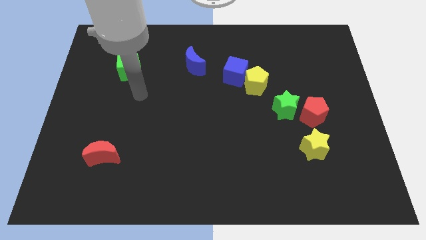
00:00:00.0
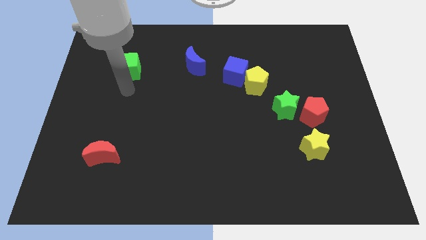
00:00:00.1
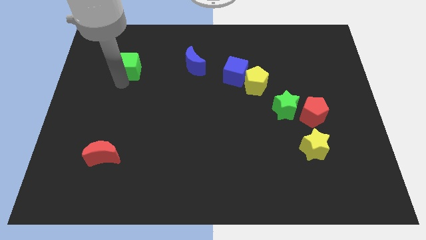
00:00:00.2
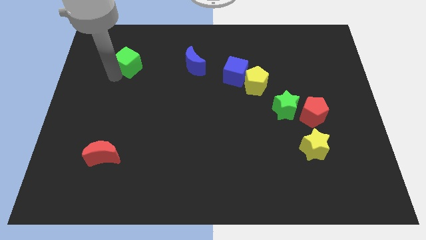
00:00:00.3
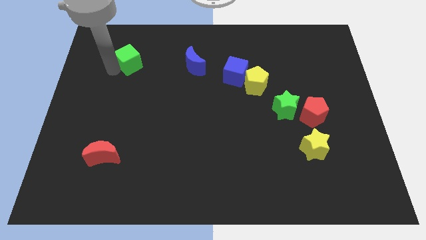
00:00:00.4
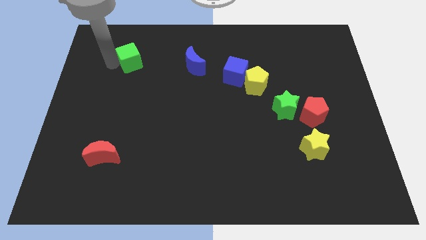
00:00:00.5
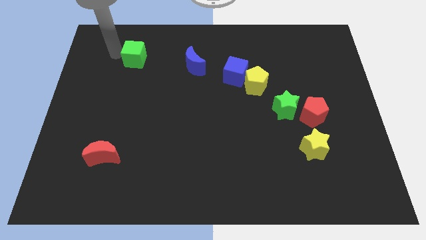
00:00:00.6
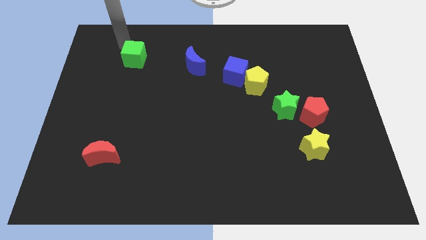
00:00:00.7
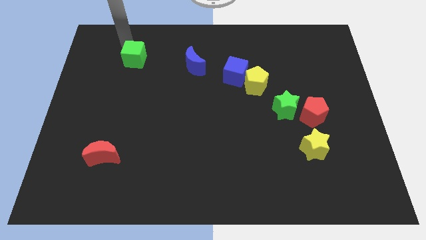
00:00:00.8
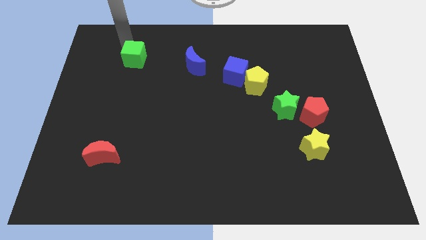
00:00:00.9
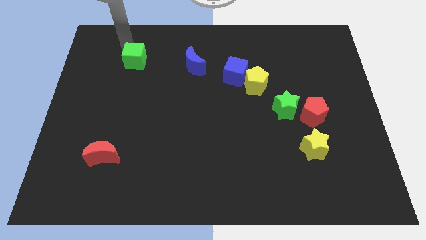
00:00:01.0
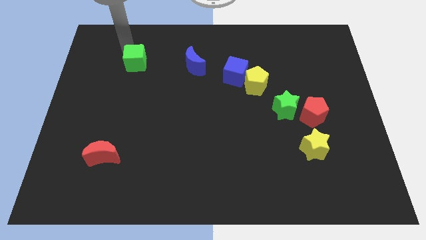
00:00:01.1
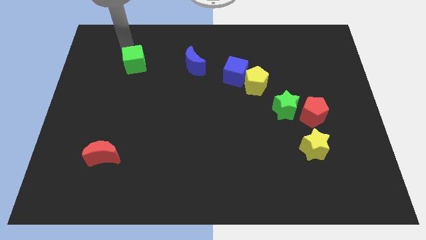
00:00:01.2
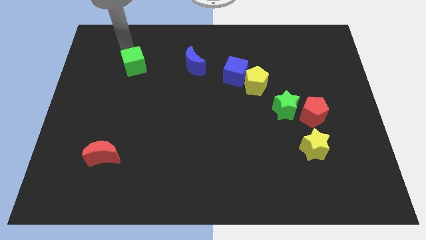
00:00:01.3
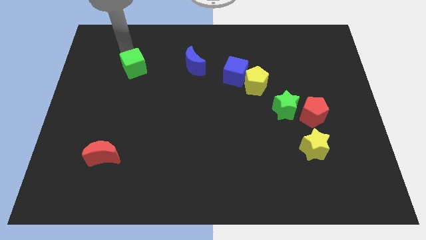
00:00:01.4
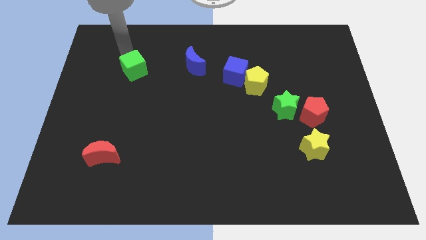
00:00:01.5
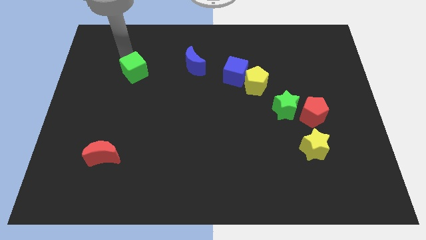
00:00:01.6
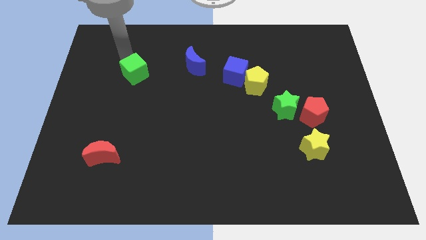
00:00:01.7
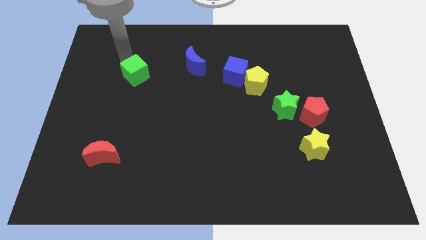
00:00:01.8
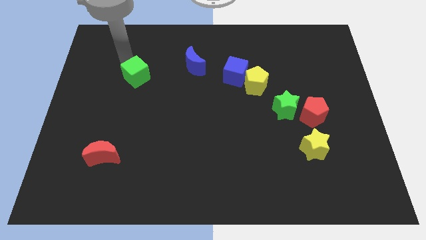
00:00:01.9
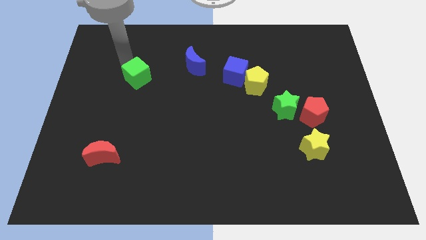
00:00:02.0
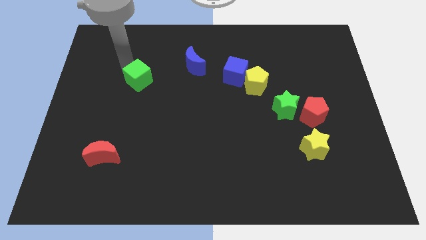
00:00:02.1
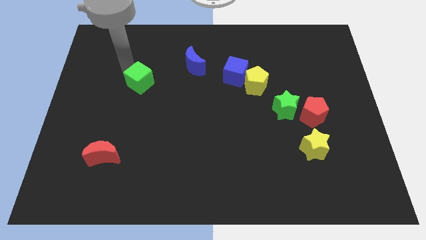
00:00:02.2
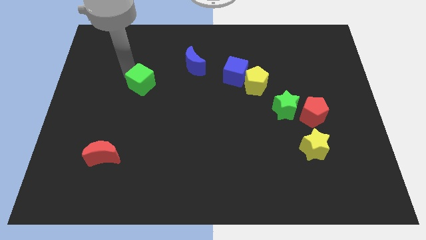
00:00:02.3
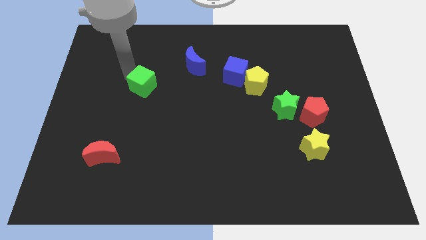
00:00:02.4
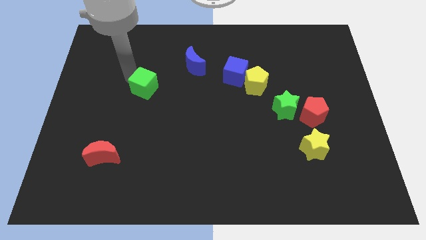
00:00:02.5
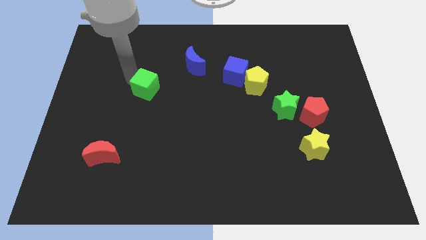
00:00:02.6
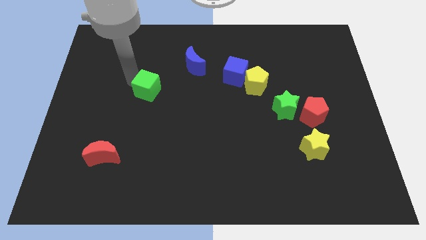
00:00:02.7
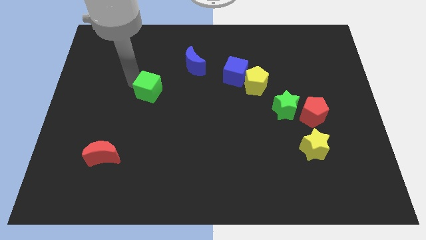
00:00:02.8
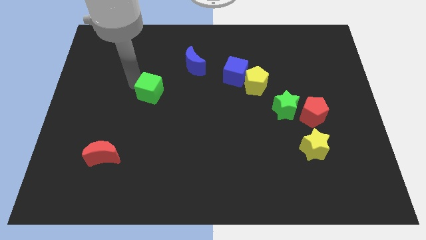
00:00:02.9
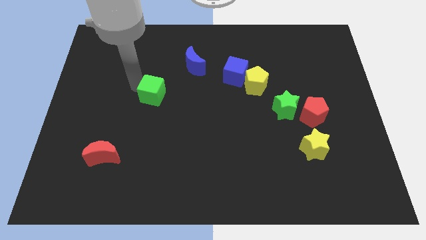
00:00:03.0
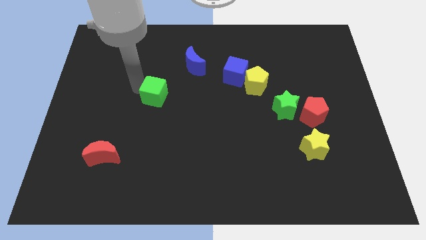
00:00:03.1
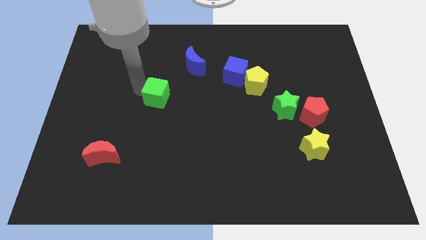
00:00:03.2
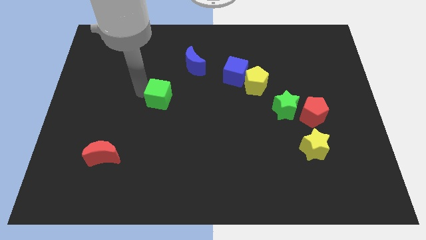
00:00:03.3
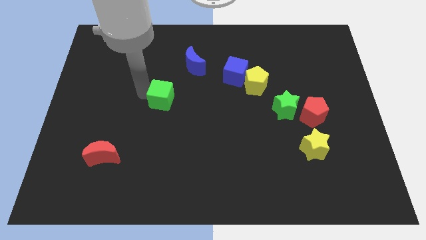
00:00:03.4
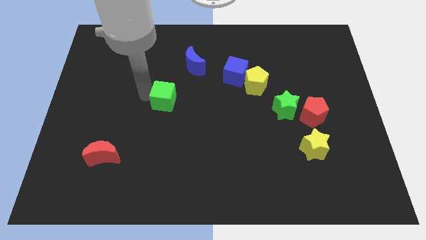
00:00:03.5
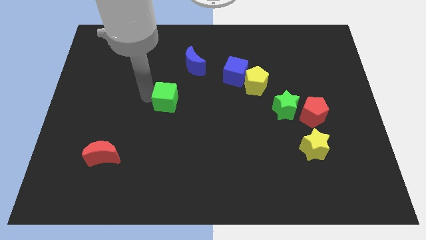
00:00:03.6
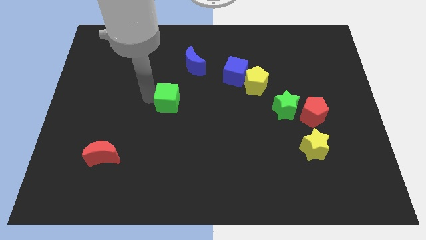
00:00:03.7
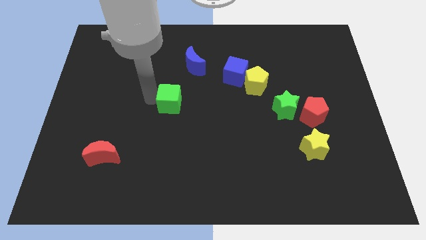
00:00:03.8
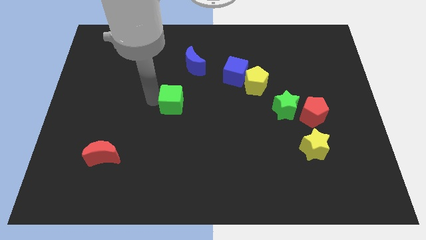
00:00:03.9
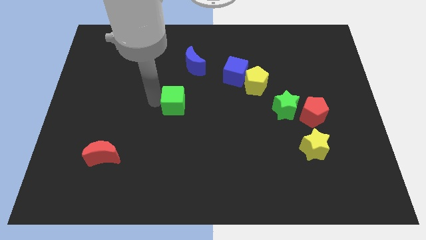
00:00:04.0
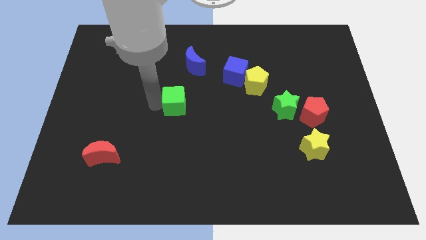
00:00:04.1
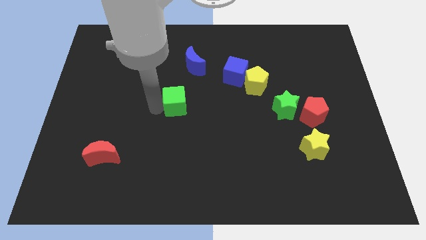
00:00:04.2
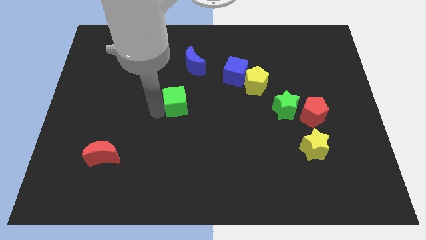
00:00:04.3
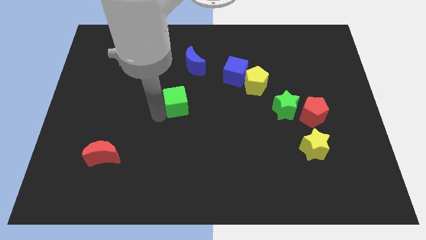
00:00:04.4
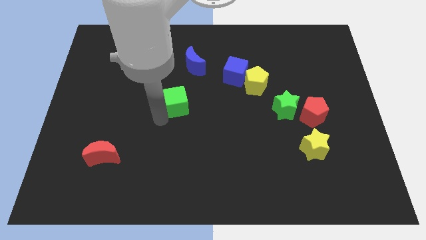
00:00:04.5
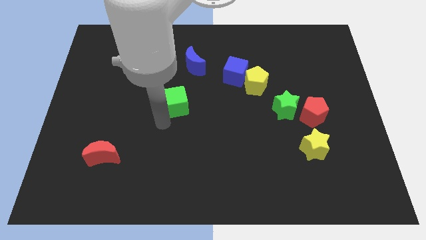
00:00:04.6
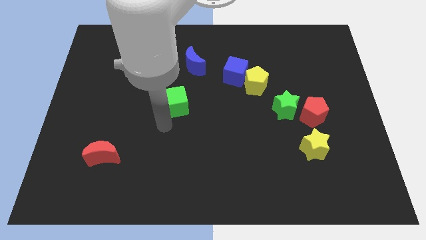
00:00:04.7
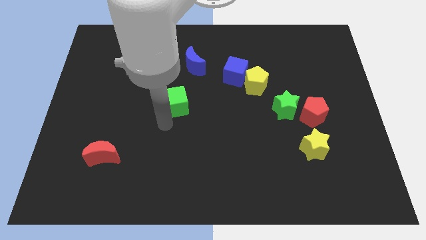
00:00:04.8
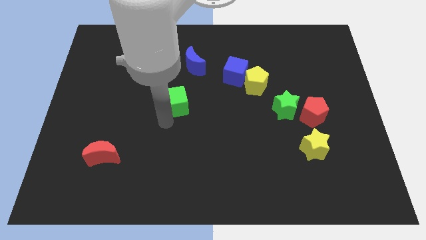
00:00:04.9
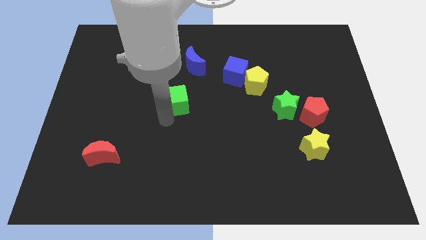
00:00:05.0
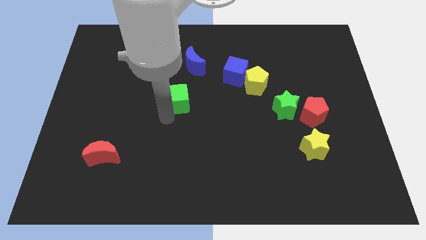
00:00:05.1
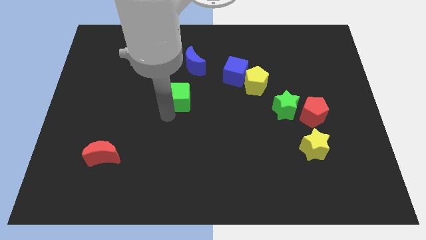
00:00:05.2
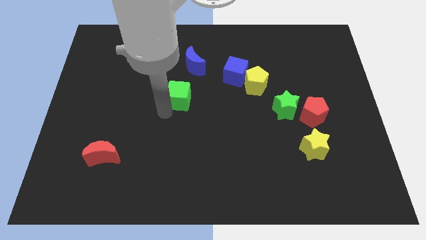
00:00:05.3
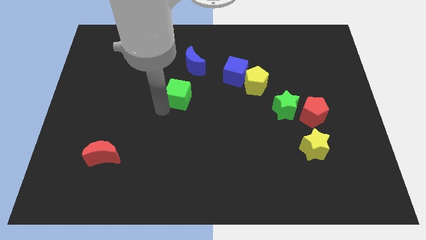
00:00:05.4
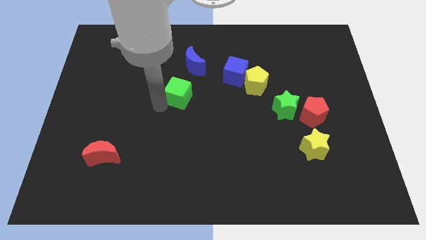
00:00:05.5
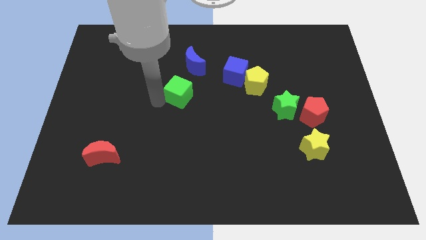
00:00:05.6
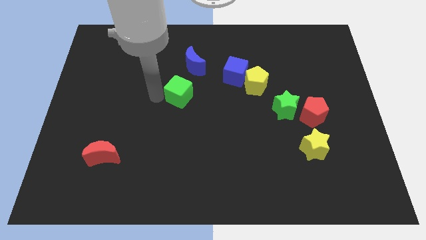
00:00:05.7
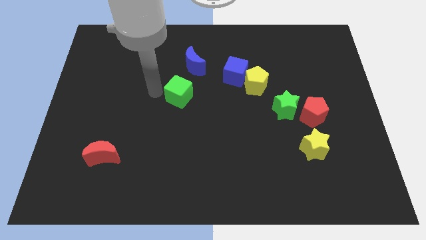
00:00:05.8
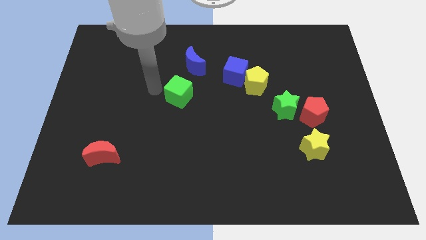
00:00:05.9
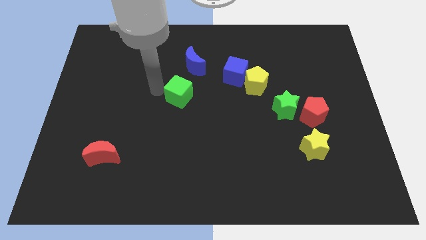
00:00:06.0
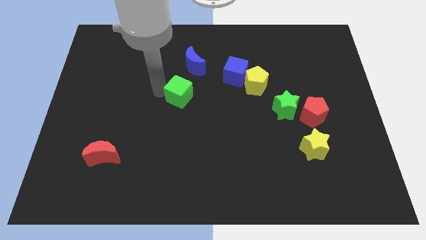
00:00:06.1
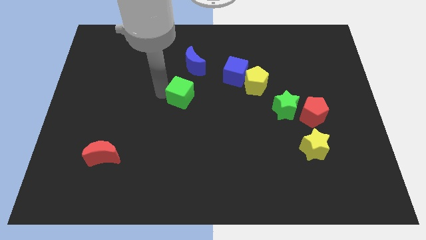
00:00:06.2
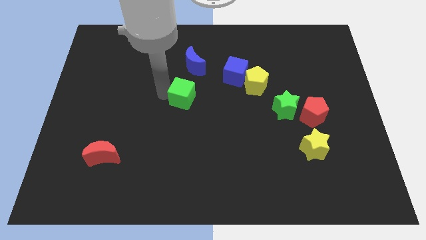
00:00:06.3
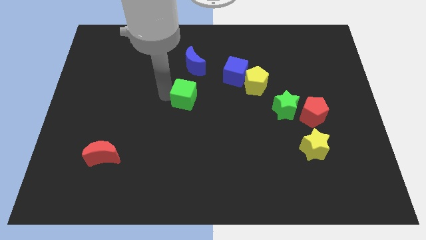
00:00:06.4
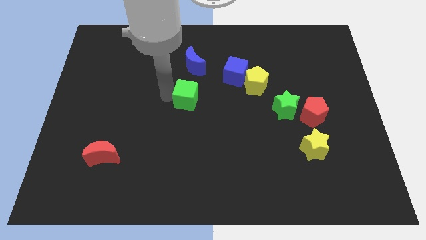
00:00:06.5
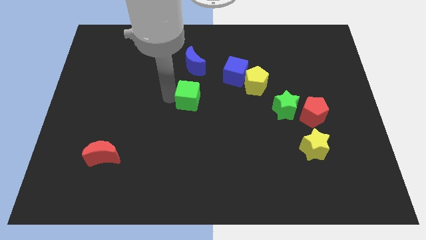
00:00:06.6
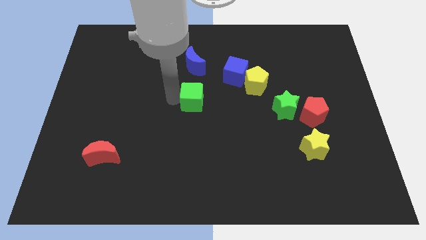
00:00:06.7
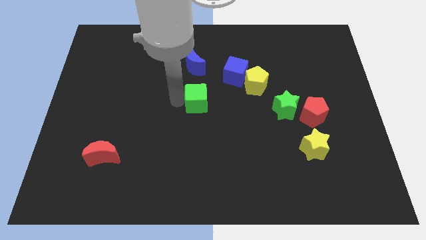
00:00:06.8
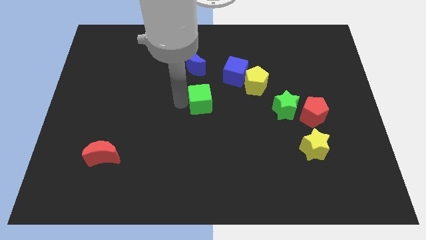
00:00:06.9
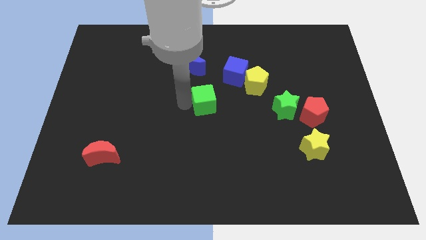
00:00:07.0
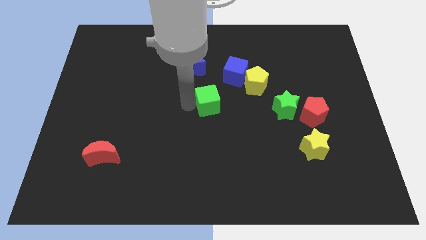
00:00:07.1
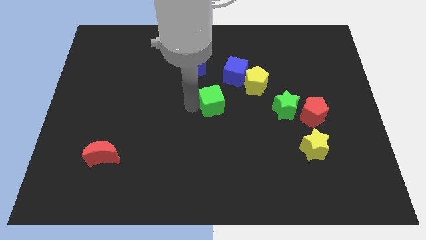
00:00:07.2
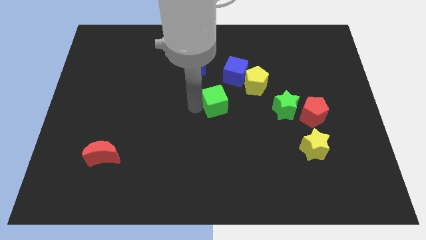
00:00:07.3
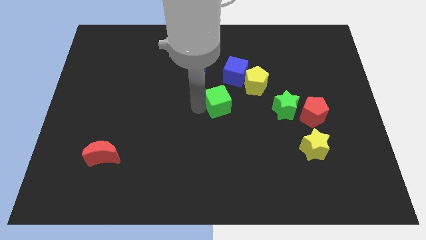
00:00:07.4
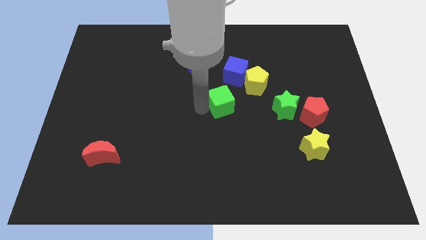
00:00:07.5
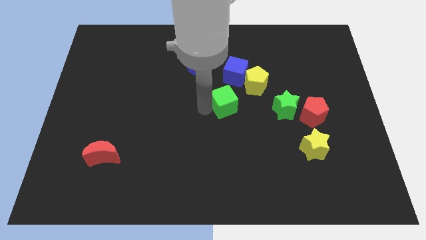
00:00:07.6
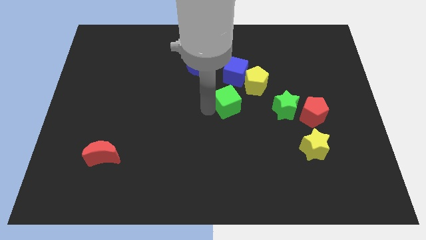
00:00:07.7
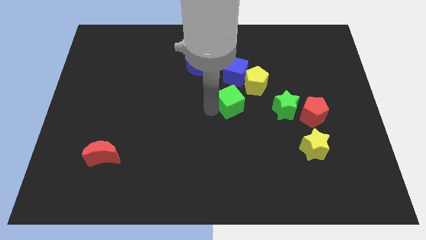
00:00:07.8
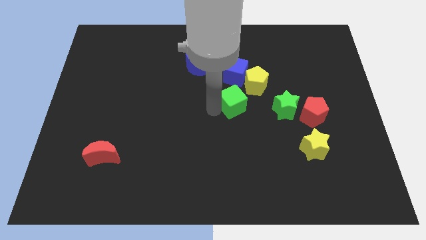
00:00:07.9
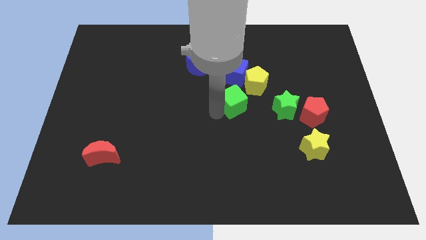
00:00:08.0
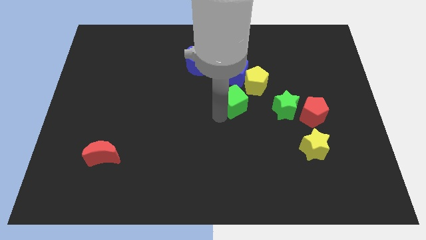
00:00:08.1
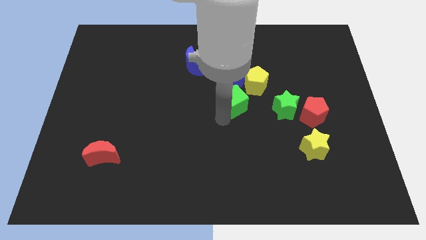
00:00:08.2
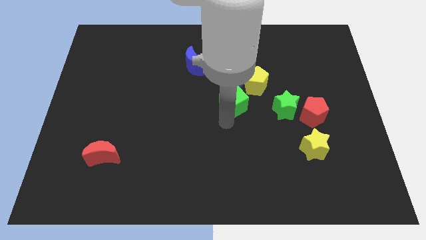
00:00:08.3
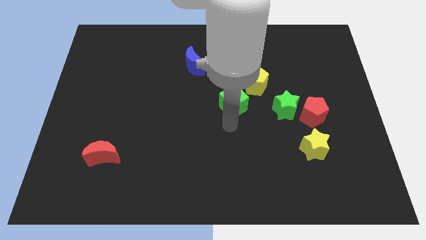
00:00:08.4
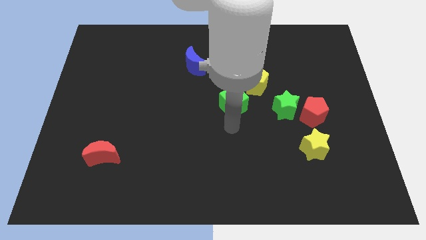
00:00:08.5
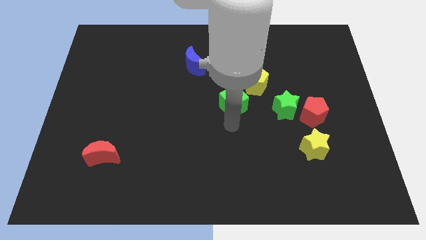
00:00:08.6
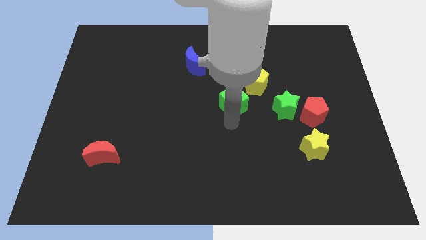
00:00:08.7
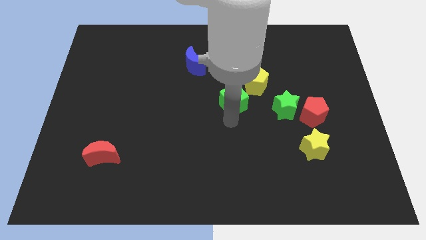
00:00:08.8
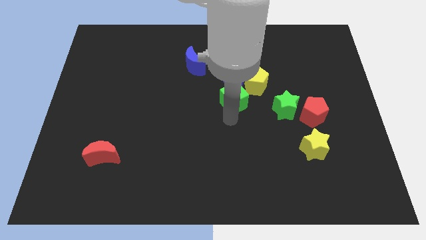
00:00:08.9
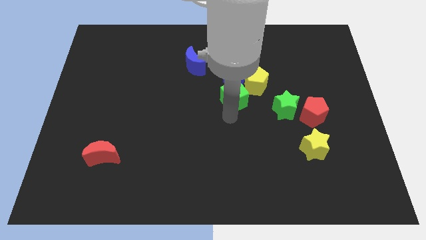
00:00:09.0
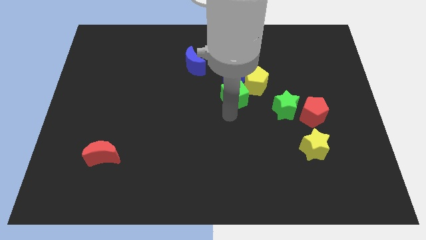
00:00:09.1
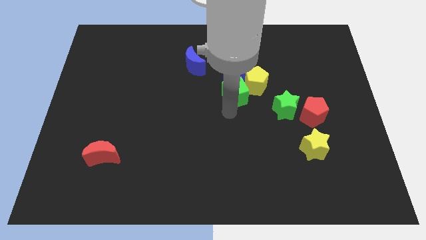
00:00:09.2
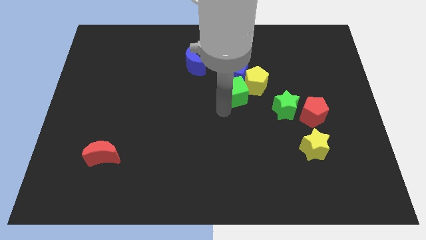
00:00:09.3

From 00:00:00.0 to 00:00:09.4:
push the green cube close to the yellow pentagon
